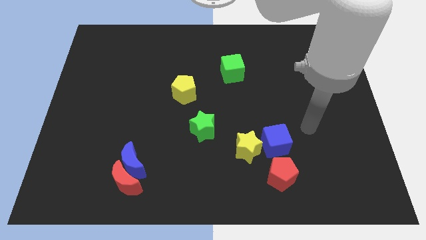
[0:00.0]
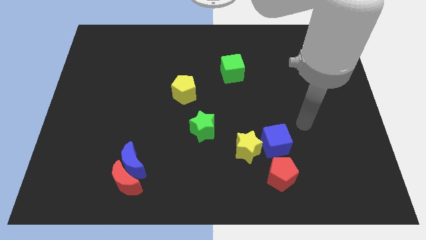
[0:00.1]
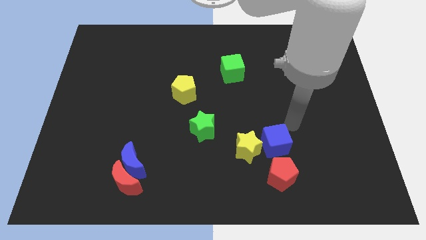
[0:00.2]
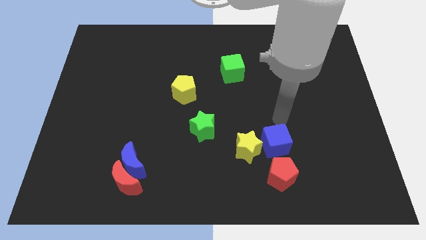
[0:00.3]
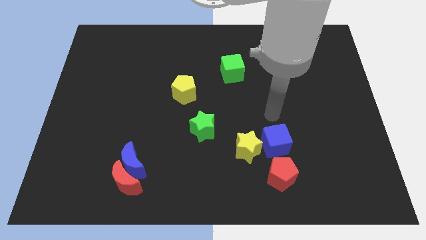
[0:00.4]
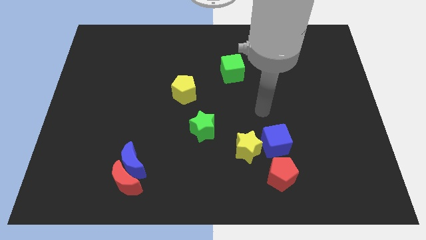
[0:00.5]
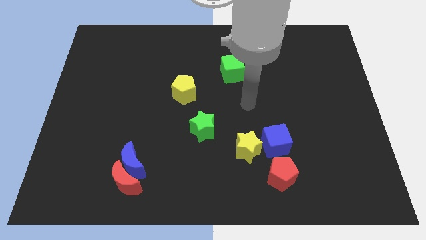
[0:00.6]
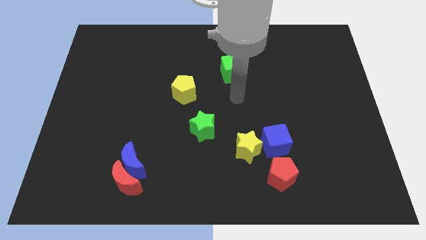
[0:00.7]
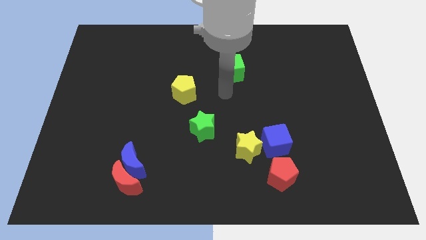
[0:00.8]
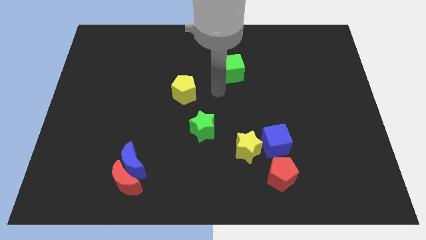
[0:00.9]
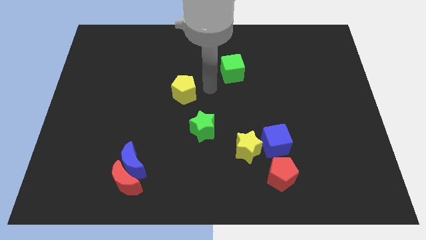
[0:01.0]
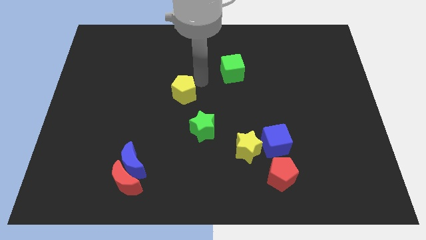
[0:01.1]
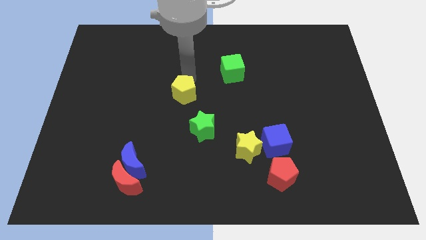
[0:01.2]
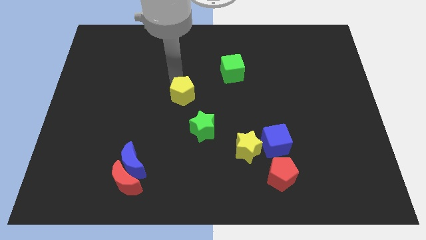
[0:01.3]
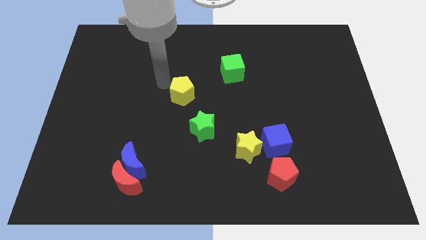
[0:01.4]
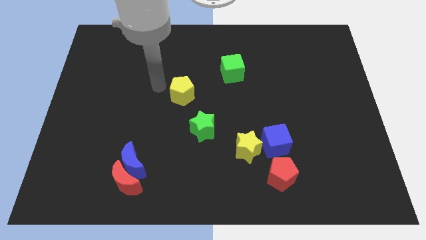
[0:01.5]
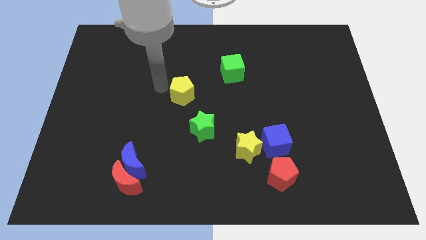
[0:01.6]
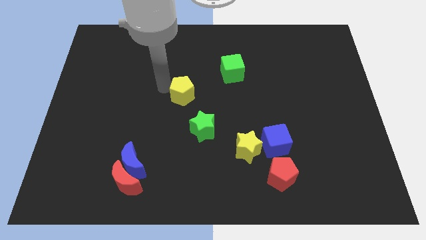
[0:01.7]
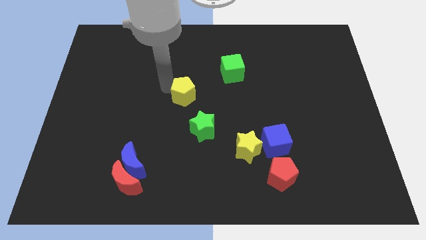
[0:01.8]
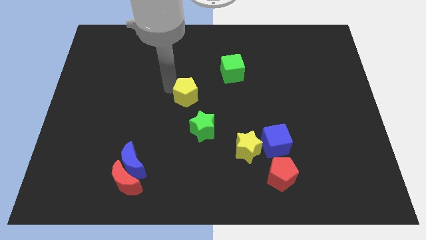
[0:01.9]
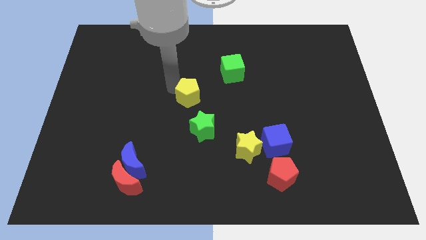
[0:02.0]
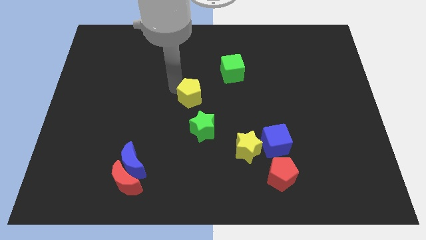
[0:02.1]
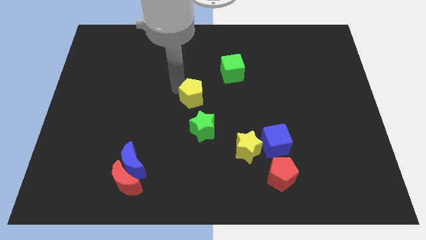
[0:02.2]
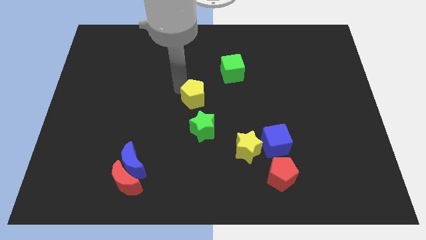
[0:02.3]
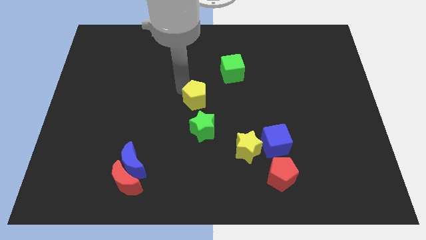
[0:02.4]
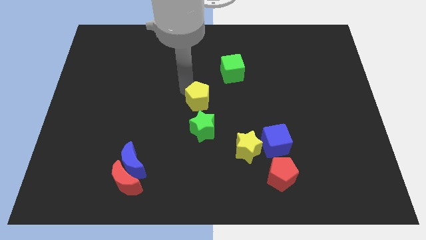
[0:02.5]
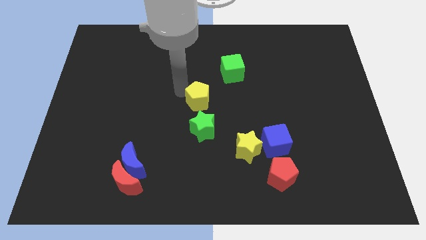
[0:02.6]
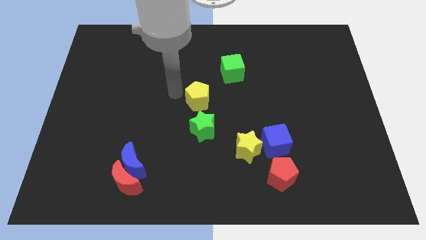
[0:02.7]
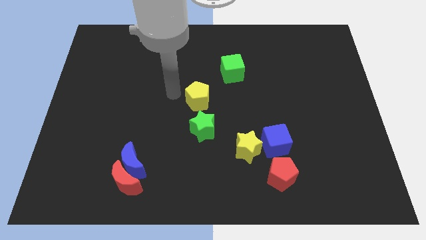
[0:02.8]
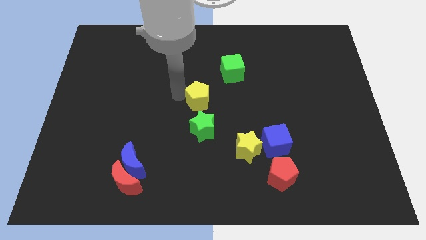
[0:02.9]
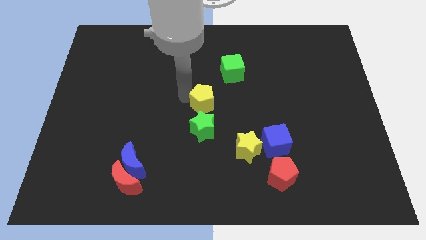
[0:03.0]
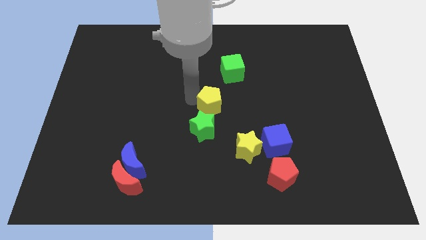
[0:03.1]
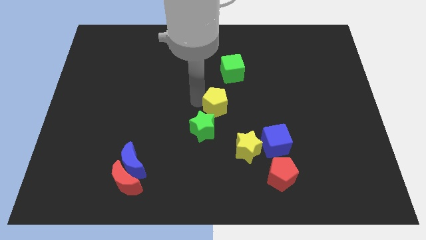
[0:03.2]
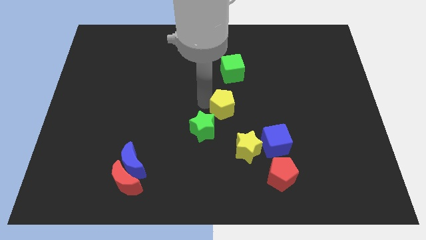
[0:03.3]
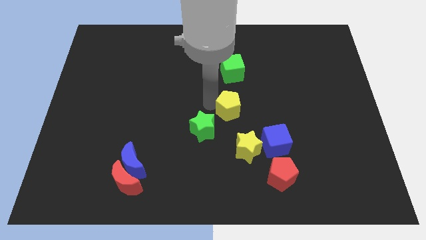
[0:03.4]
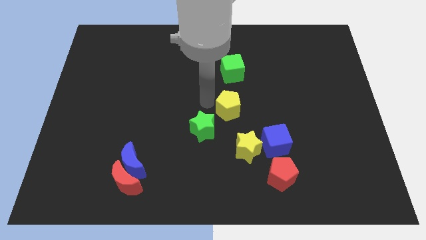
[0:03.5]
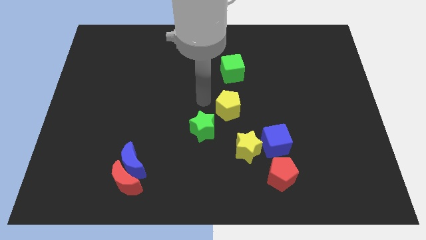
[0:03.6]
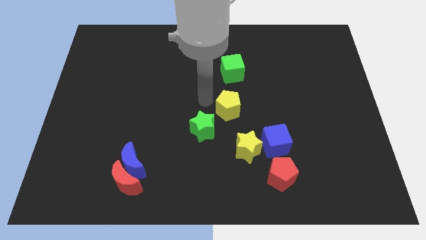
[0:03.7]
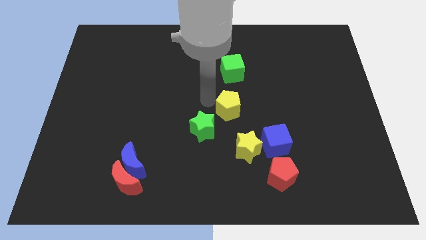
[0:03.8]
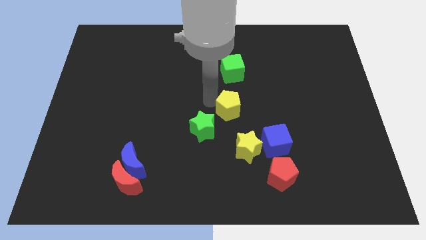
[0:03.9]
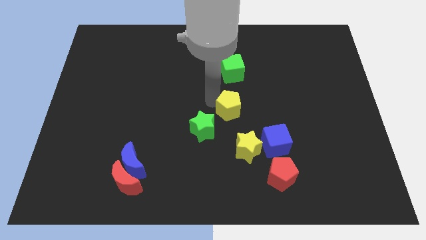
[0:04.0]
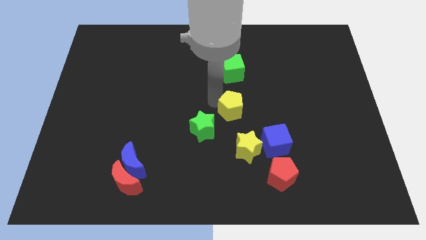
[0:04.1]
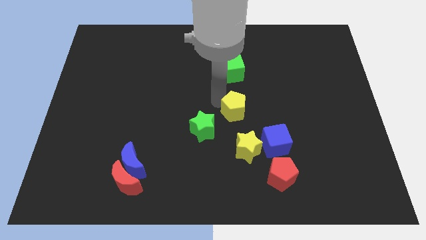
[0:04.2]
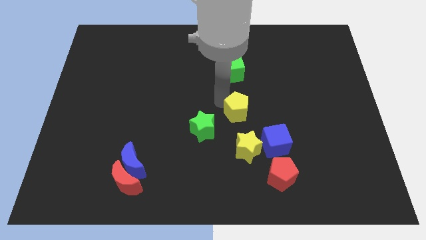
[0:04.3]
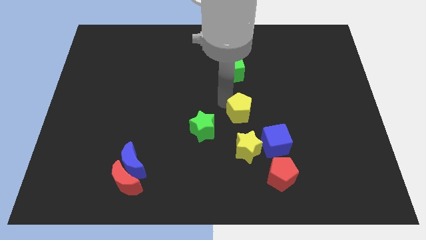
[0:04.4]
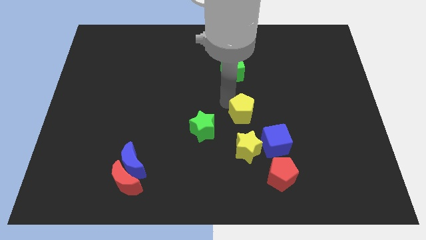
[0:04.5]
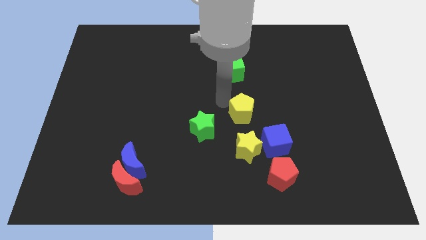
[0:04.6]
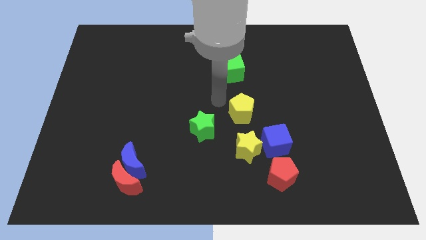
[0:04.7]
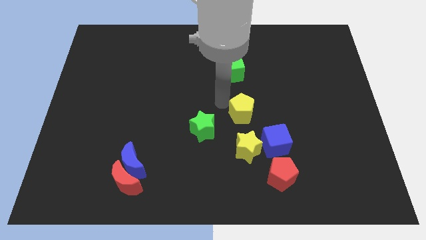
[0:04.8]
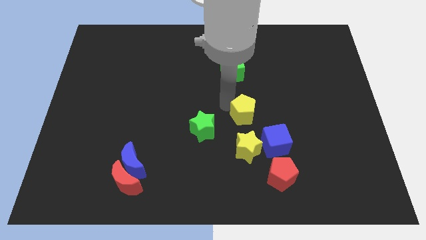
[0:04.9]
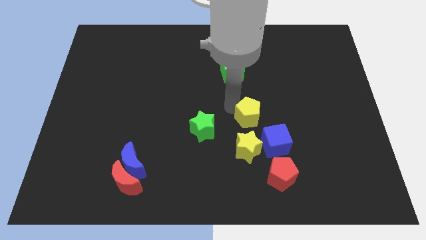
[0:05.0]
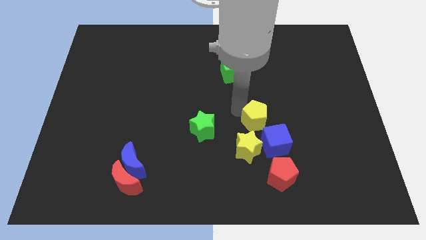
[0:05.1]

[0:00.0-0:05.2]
put the yellow pentagon to the top right of the yellow star

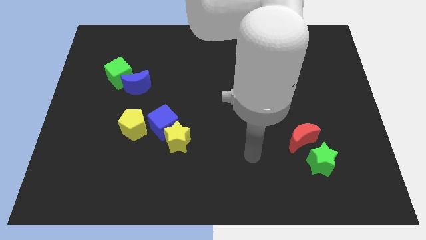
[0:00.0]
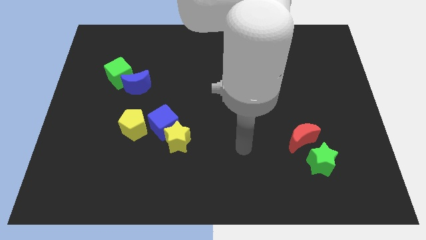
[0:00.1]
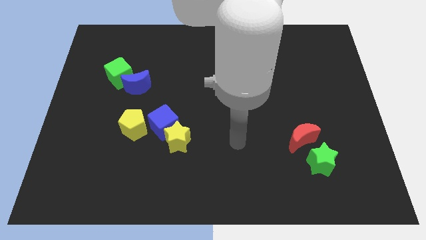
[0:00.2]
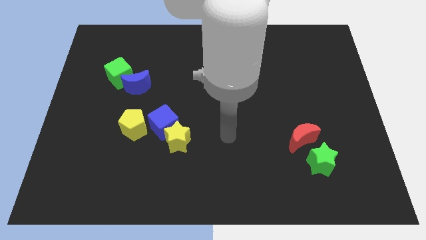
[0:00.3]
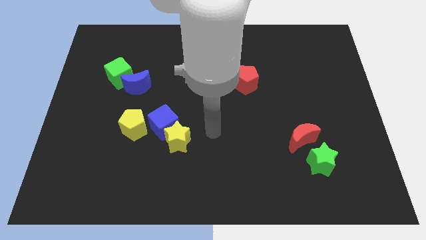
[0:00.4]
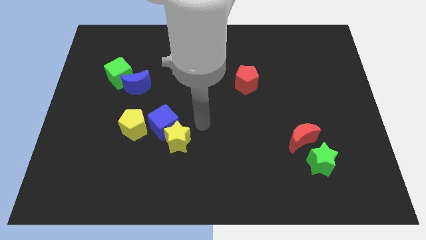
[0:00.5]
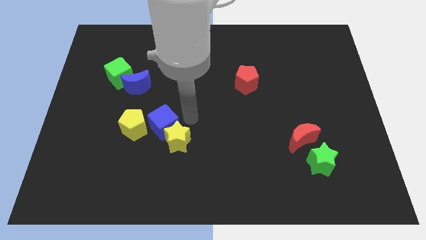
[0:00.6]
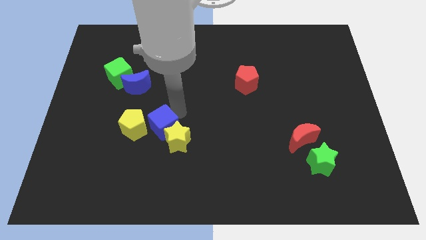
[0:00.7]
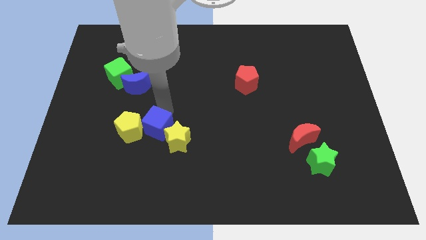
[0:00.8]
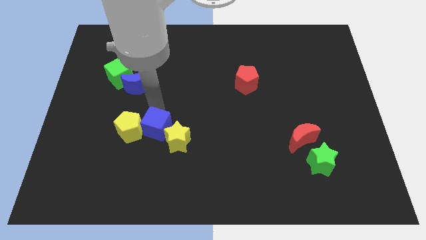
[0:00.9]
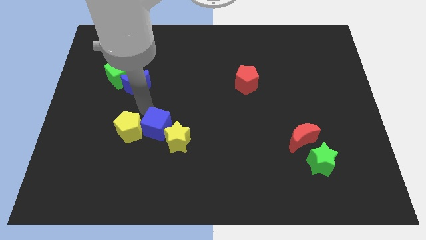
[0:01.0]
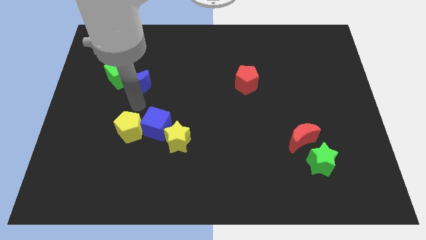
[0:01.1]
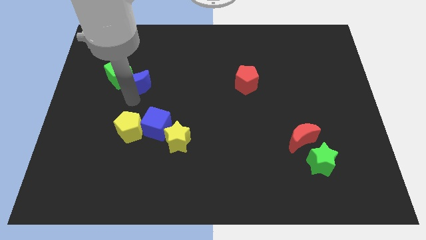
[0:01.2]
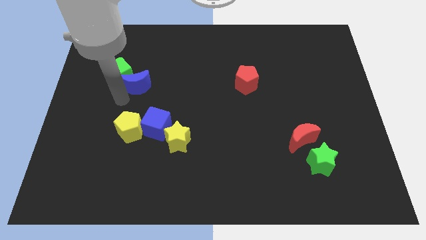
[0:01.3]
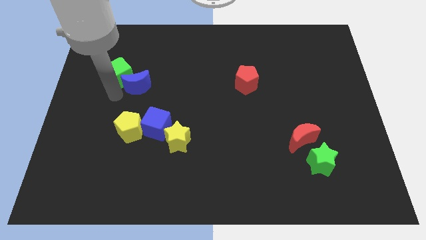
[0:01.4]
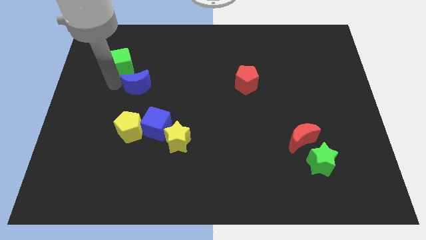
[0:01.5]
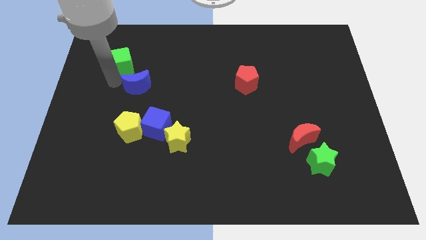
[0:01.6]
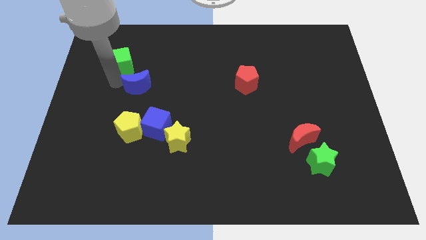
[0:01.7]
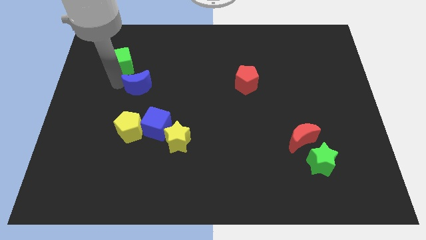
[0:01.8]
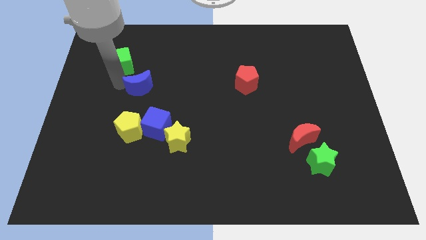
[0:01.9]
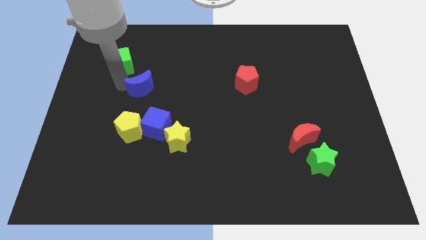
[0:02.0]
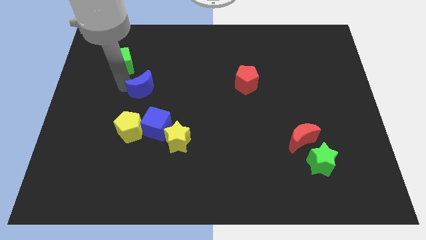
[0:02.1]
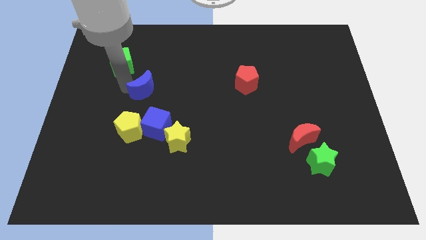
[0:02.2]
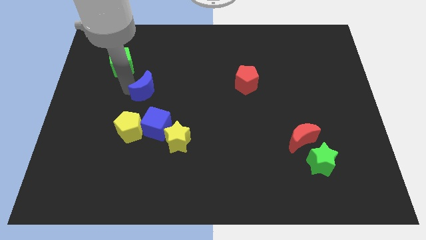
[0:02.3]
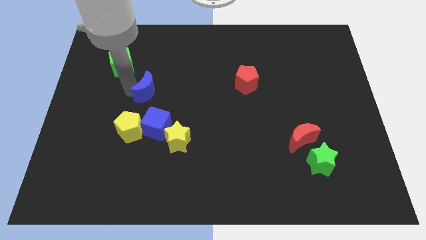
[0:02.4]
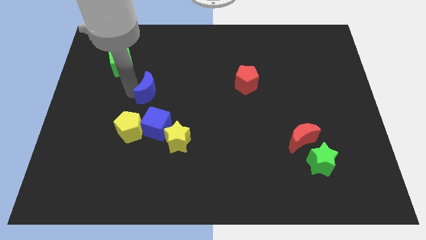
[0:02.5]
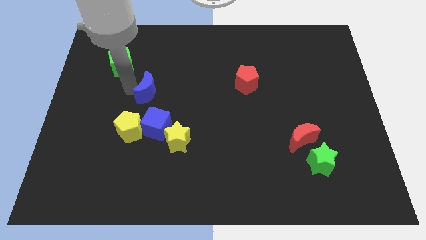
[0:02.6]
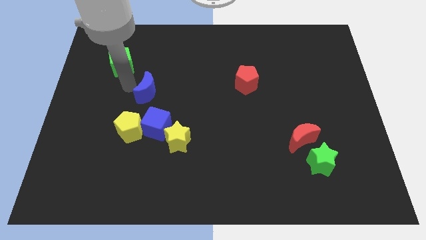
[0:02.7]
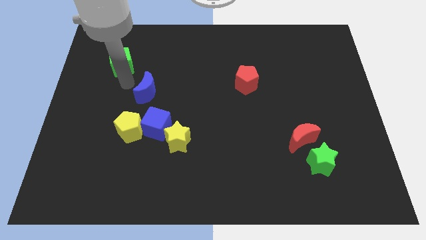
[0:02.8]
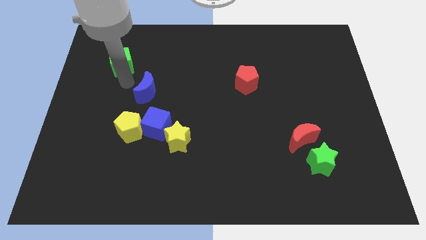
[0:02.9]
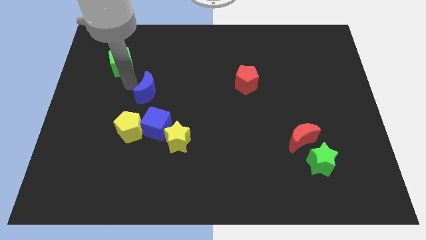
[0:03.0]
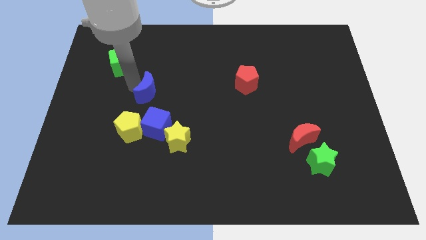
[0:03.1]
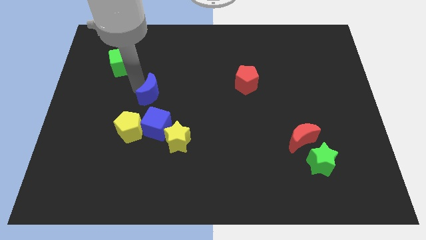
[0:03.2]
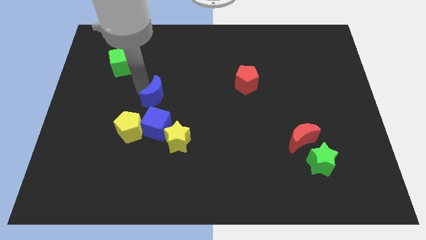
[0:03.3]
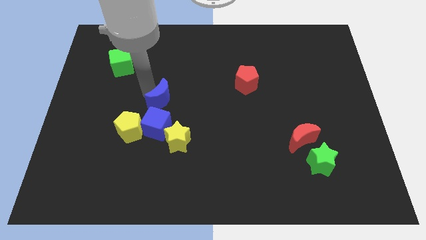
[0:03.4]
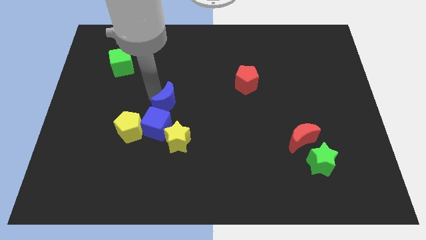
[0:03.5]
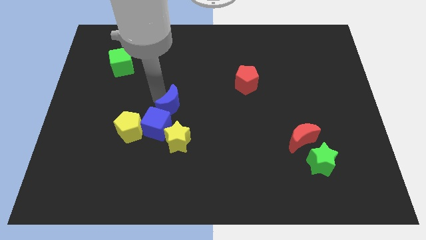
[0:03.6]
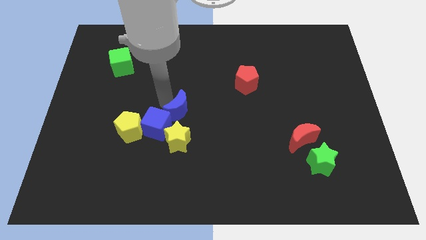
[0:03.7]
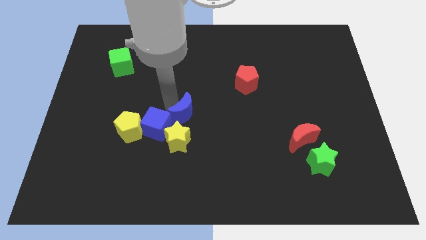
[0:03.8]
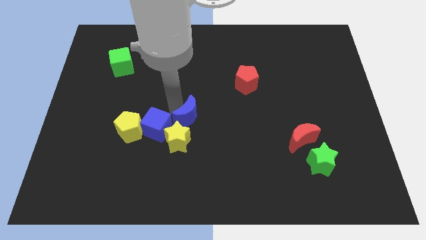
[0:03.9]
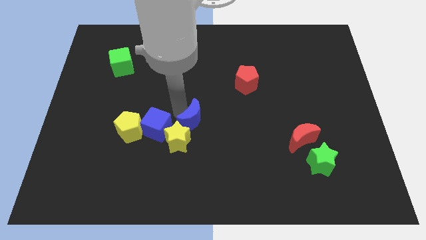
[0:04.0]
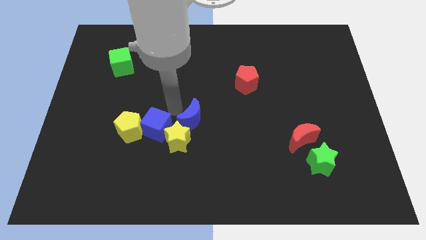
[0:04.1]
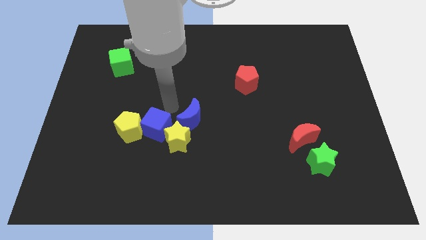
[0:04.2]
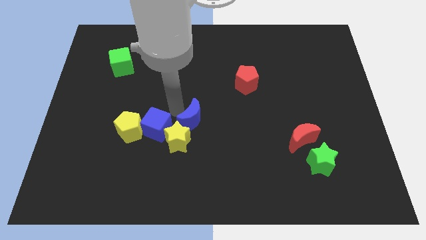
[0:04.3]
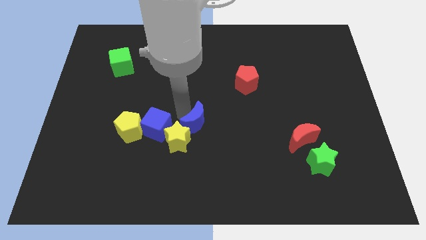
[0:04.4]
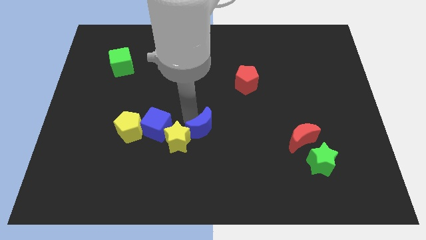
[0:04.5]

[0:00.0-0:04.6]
push the blue moon to the right side of the yellow star
